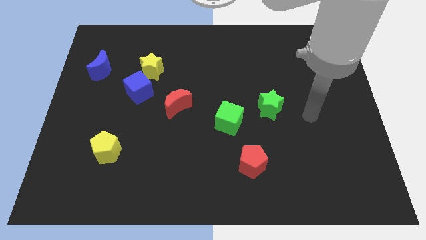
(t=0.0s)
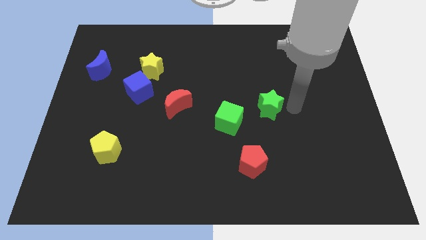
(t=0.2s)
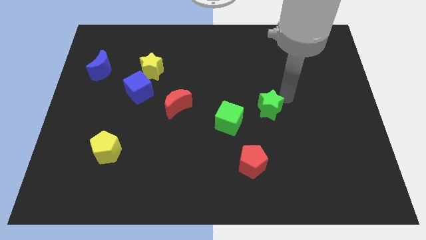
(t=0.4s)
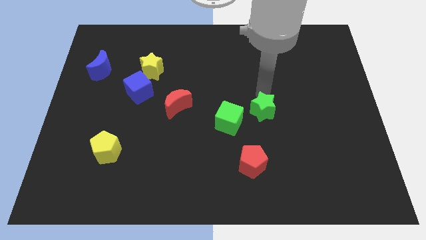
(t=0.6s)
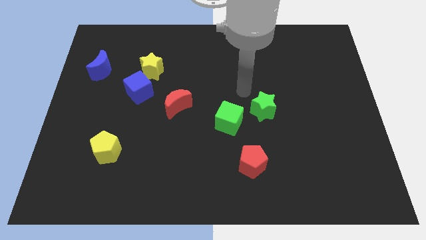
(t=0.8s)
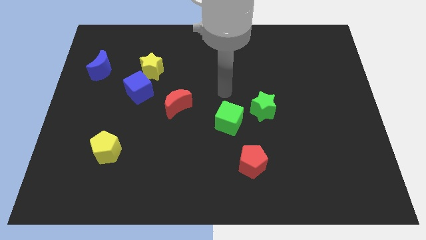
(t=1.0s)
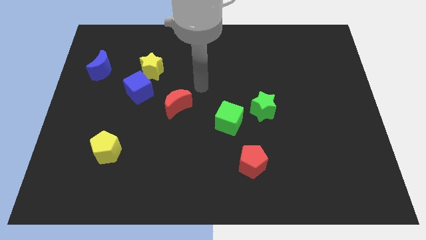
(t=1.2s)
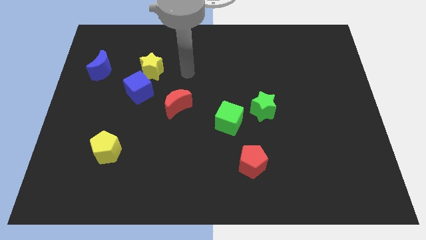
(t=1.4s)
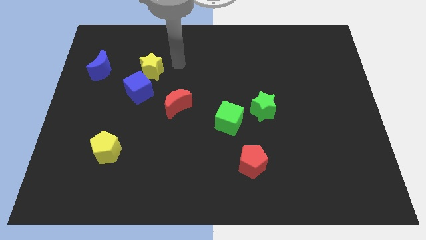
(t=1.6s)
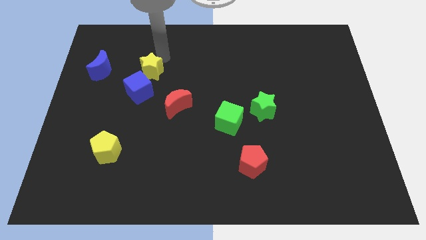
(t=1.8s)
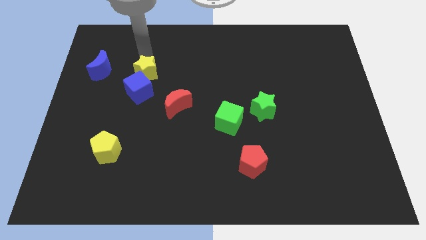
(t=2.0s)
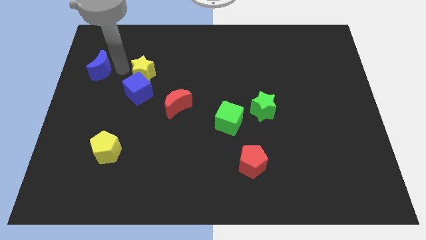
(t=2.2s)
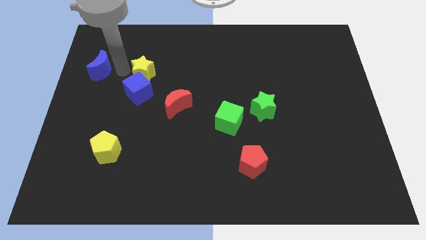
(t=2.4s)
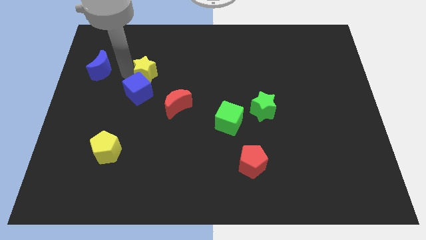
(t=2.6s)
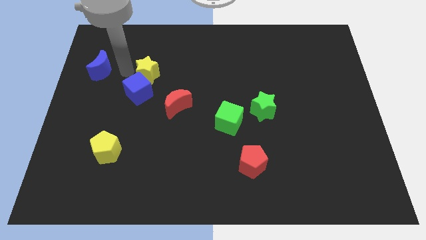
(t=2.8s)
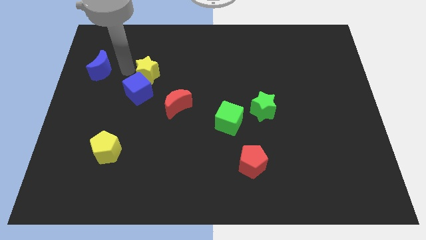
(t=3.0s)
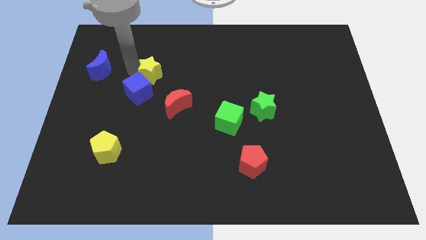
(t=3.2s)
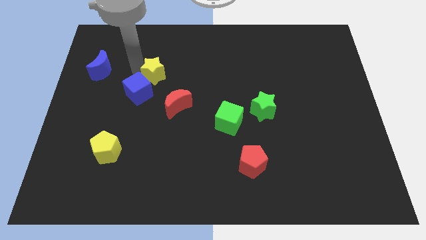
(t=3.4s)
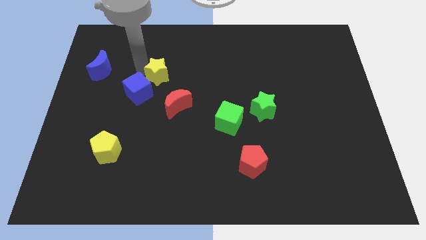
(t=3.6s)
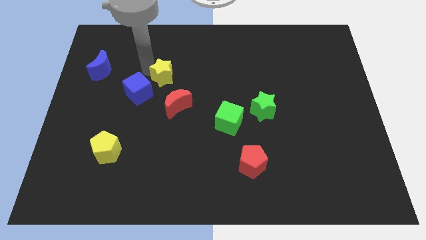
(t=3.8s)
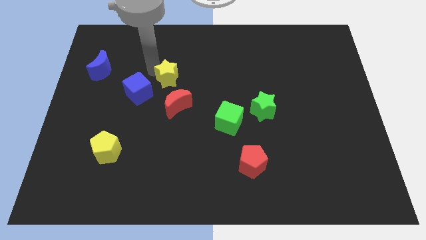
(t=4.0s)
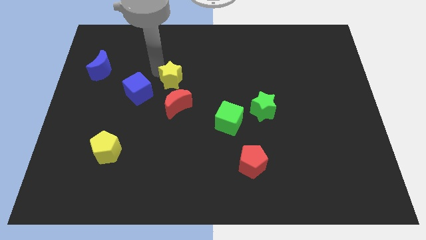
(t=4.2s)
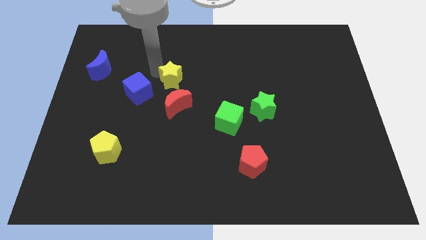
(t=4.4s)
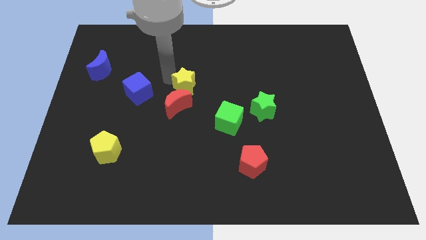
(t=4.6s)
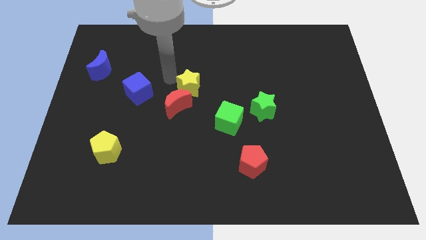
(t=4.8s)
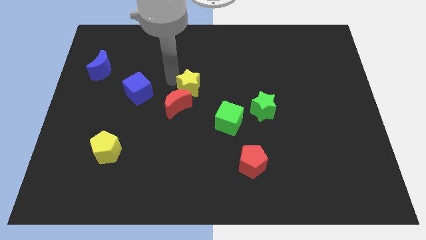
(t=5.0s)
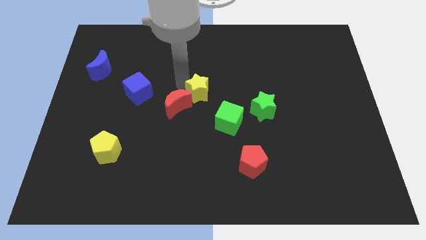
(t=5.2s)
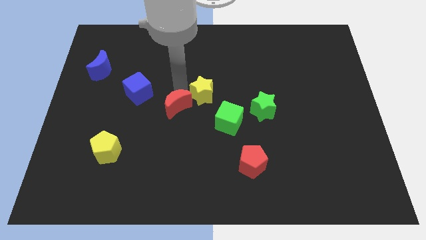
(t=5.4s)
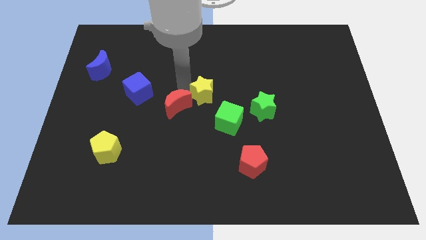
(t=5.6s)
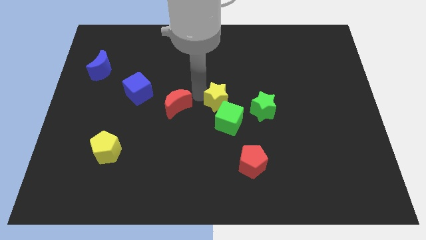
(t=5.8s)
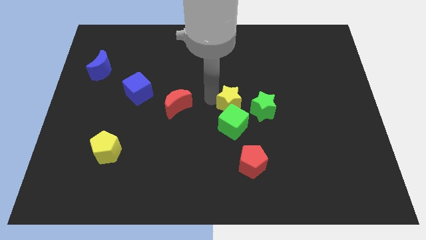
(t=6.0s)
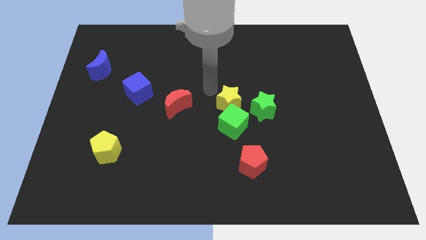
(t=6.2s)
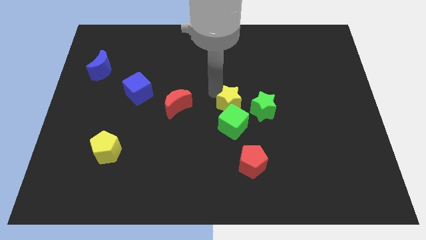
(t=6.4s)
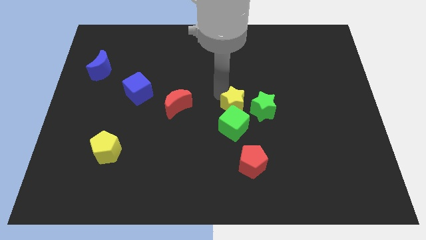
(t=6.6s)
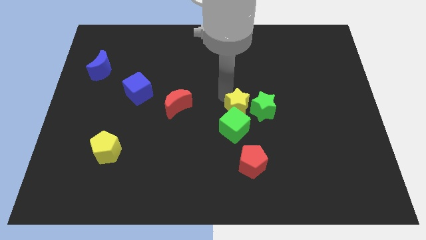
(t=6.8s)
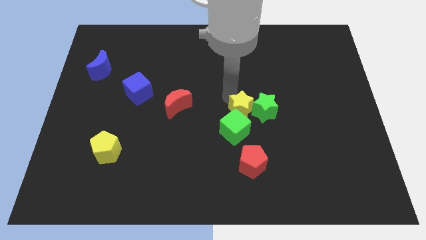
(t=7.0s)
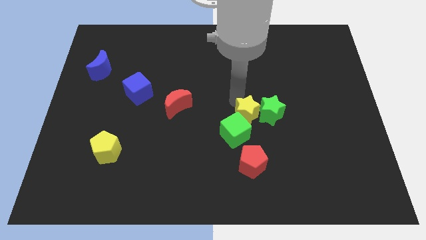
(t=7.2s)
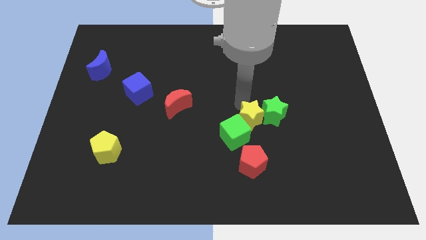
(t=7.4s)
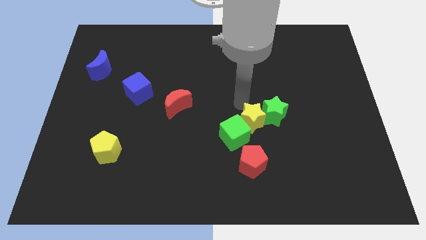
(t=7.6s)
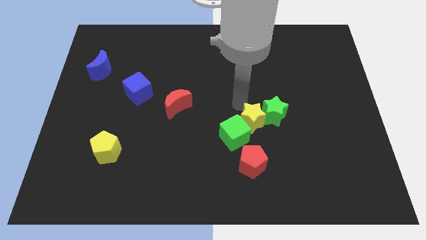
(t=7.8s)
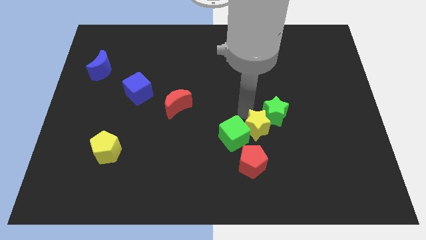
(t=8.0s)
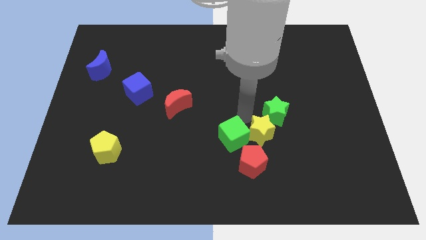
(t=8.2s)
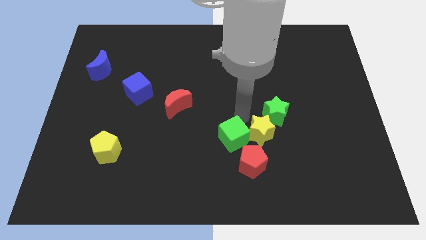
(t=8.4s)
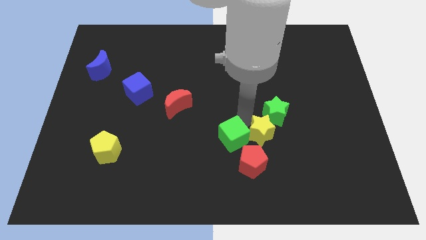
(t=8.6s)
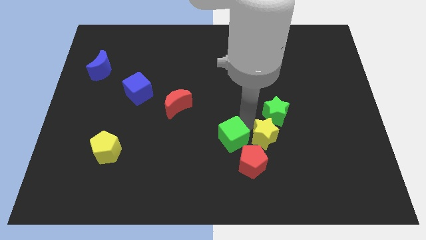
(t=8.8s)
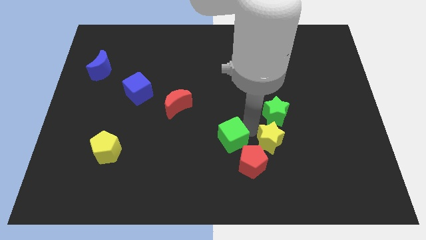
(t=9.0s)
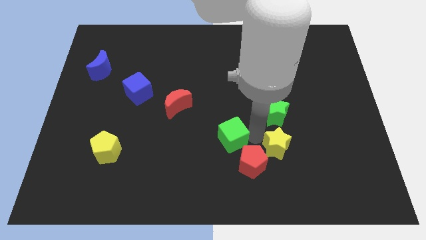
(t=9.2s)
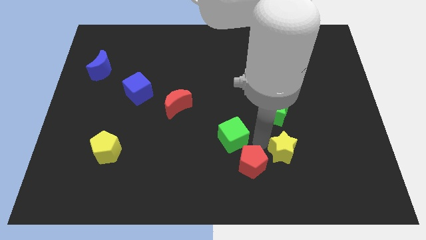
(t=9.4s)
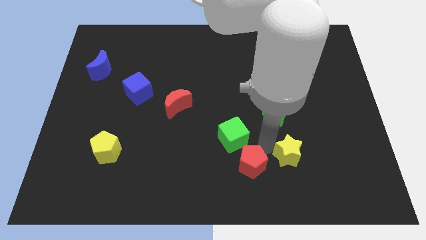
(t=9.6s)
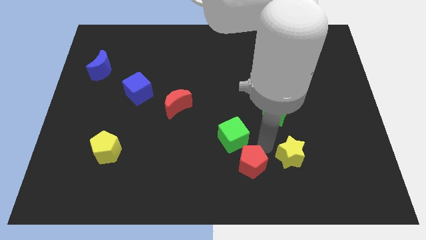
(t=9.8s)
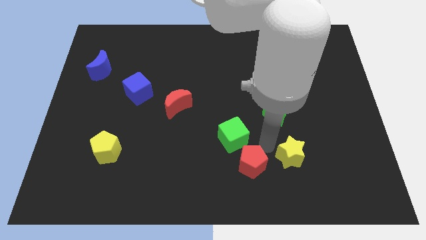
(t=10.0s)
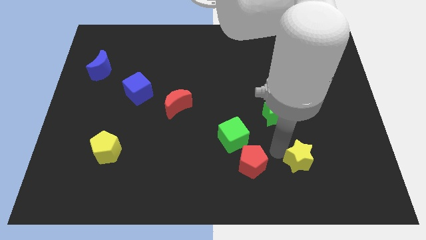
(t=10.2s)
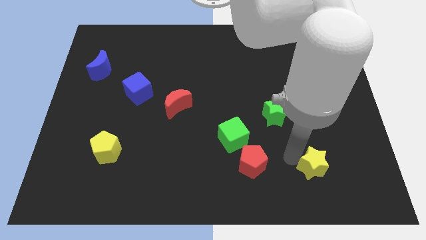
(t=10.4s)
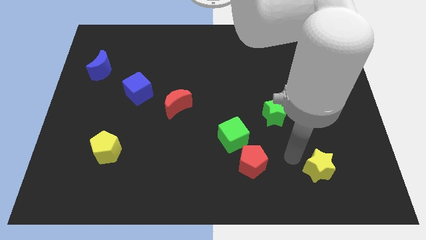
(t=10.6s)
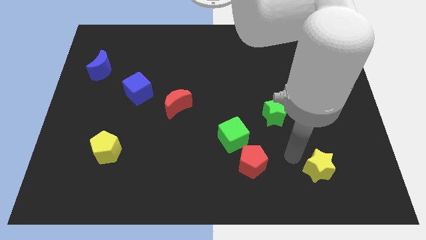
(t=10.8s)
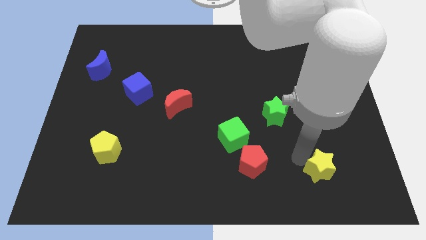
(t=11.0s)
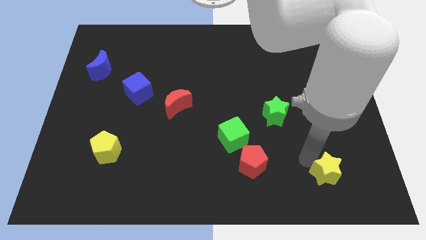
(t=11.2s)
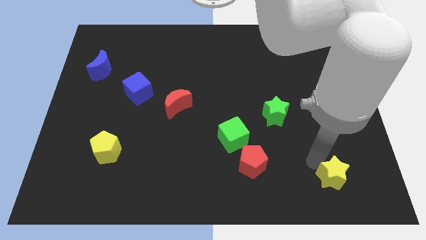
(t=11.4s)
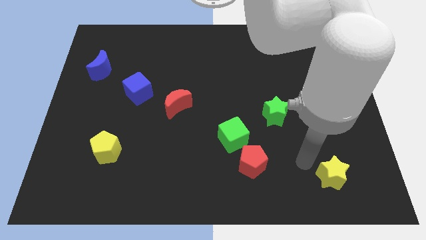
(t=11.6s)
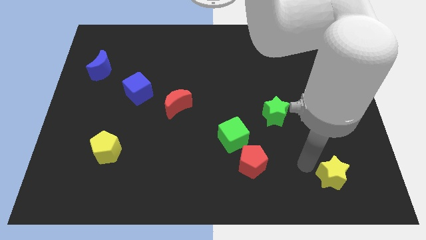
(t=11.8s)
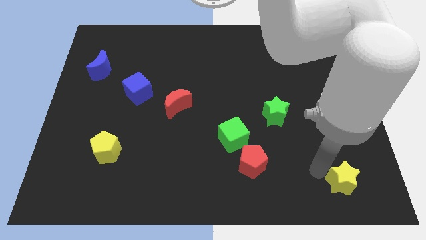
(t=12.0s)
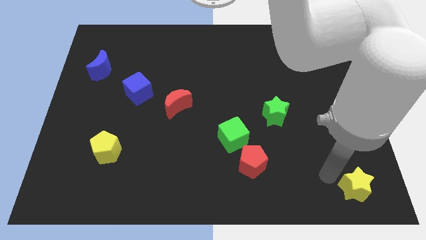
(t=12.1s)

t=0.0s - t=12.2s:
put the yellow star to the bottom right

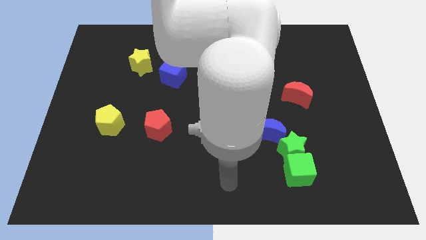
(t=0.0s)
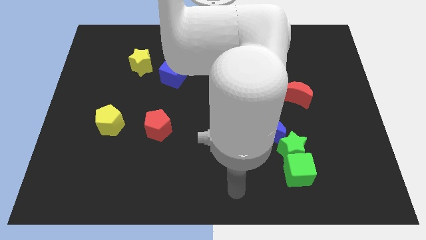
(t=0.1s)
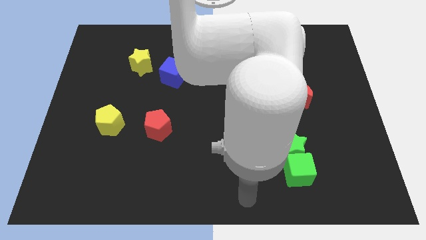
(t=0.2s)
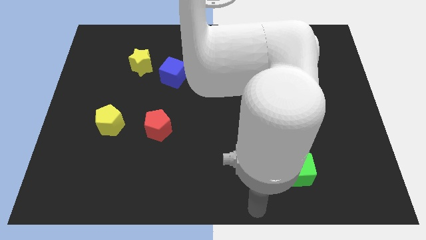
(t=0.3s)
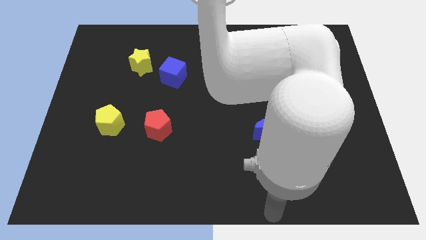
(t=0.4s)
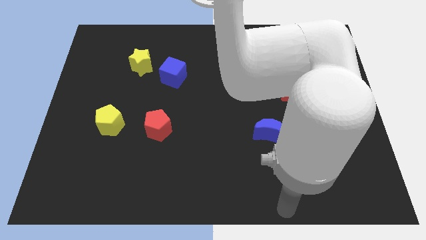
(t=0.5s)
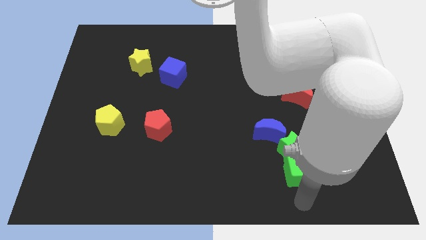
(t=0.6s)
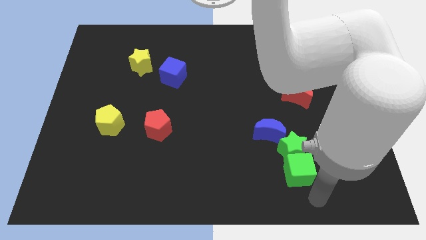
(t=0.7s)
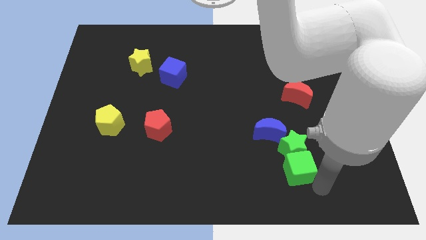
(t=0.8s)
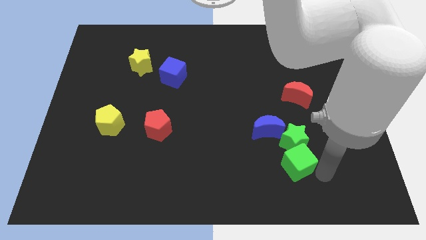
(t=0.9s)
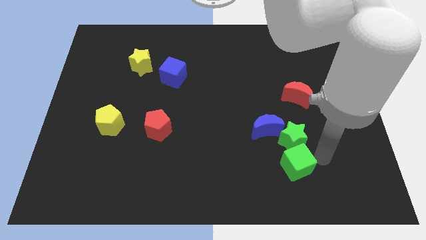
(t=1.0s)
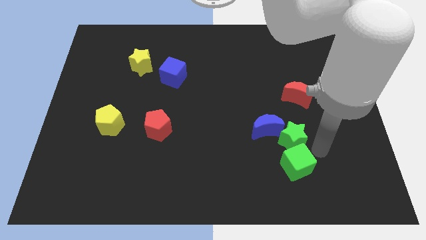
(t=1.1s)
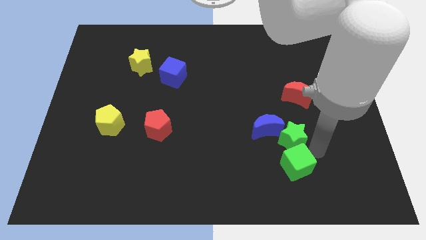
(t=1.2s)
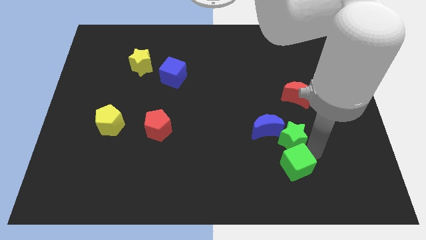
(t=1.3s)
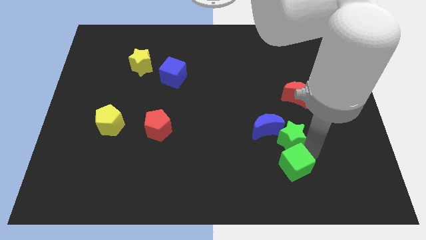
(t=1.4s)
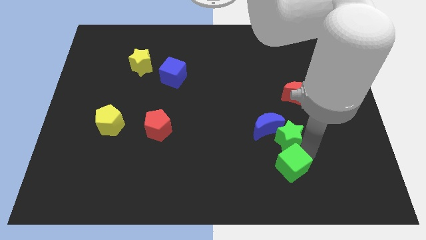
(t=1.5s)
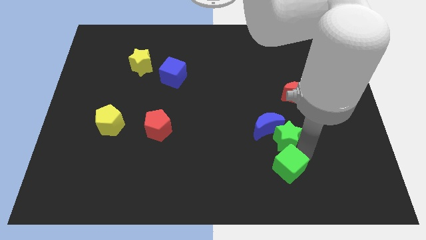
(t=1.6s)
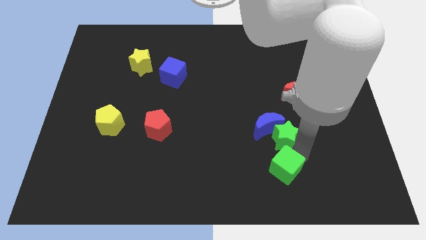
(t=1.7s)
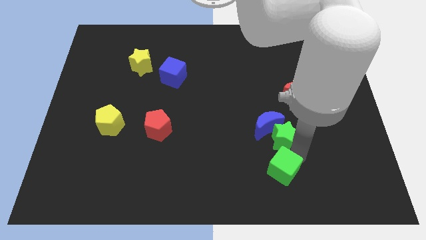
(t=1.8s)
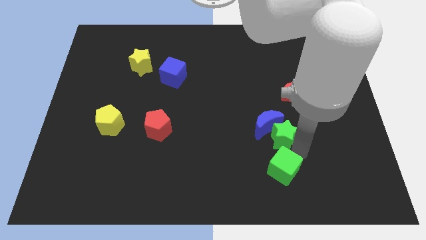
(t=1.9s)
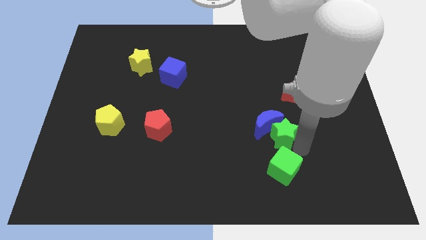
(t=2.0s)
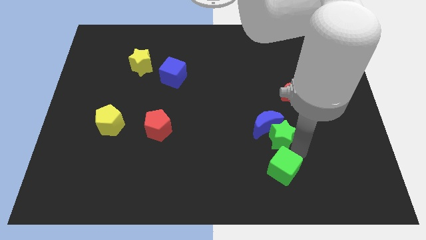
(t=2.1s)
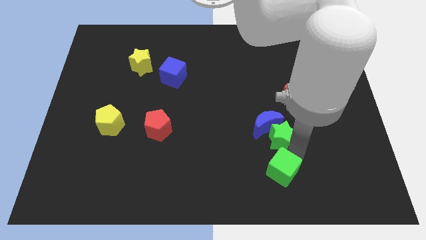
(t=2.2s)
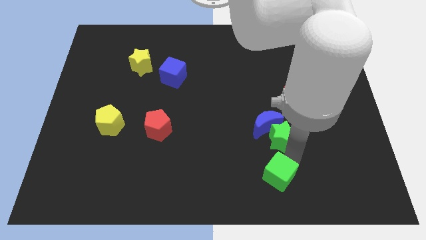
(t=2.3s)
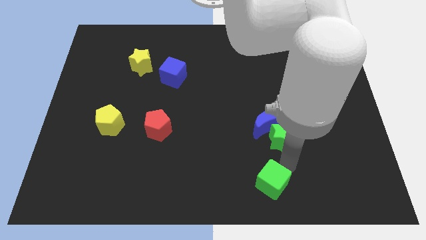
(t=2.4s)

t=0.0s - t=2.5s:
move the green cube to the bottom
